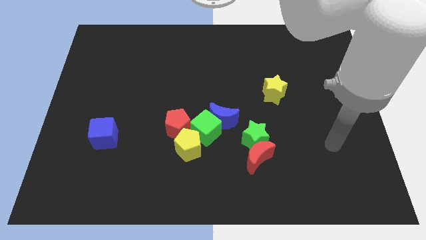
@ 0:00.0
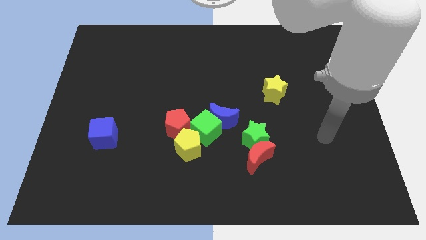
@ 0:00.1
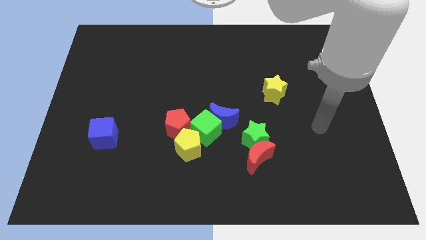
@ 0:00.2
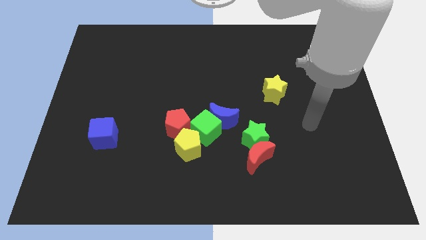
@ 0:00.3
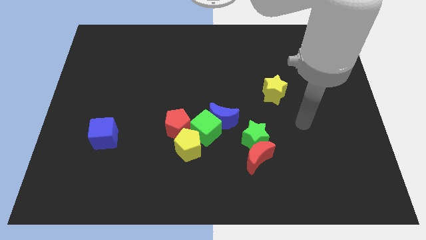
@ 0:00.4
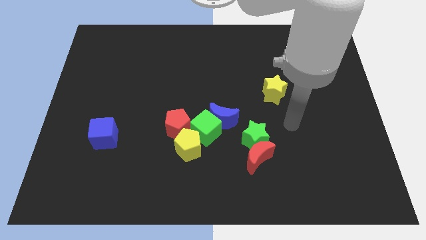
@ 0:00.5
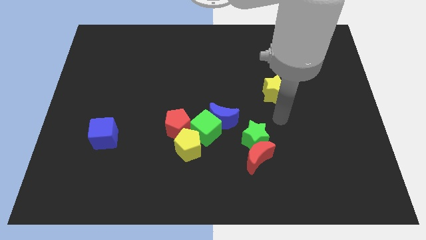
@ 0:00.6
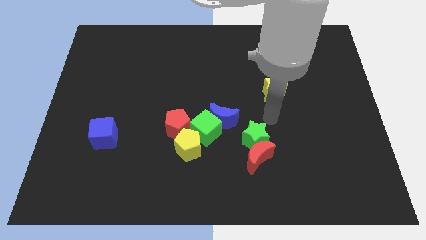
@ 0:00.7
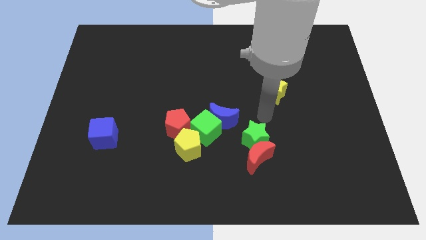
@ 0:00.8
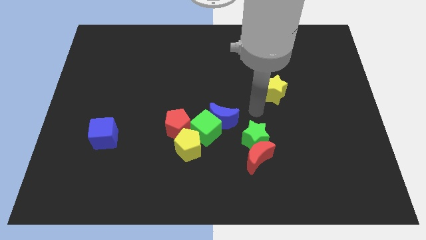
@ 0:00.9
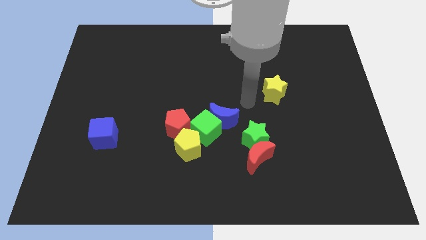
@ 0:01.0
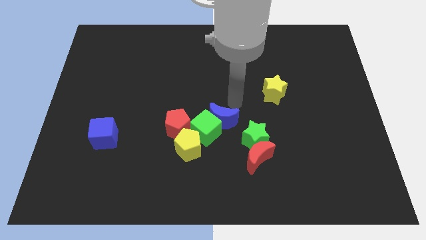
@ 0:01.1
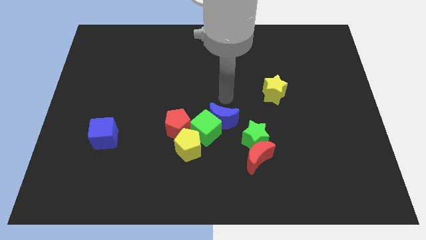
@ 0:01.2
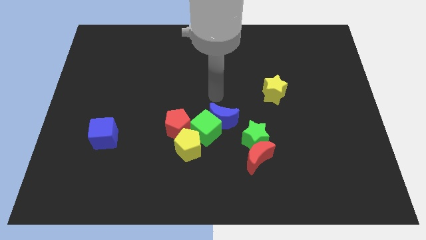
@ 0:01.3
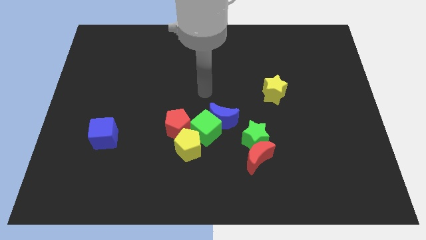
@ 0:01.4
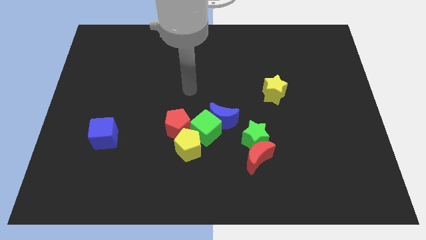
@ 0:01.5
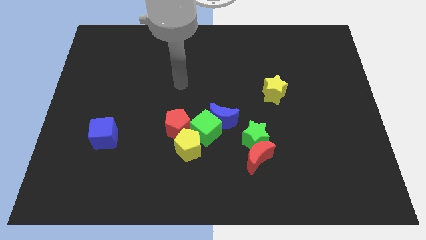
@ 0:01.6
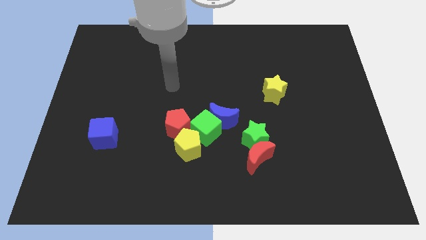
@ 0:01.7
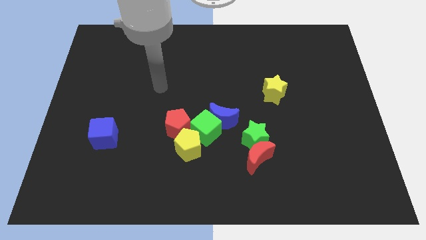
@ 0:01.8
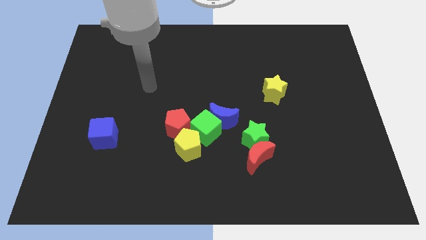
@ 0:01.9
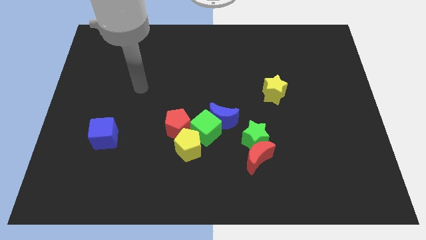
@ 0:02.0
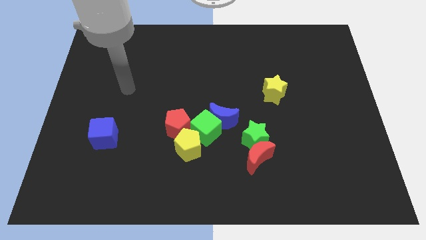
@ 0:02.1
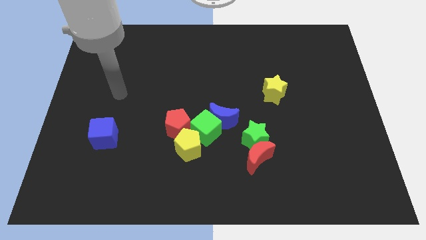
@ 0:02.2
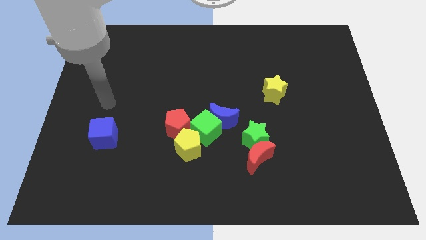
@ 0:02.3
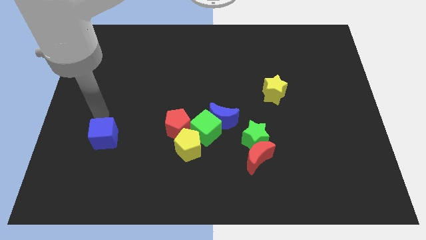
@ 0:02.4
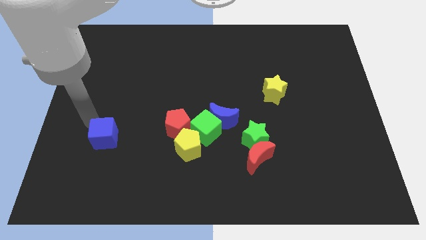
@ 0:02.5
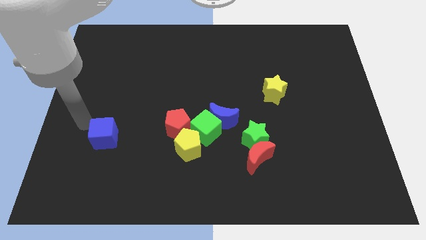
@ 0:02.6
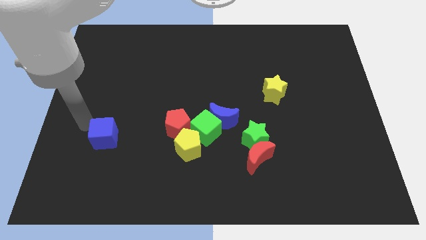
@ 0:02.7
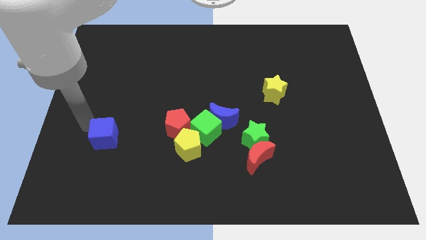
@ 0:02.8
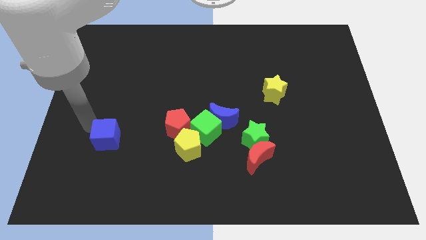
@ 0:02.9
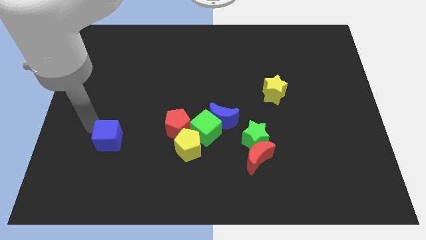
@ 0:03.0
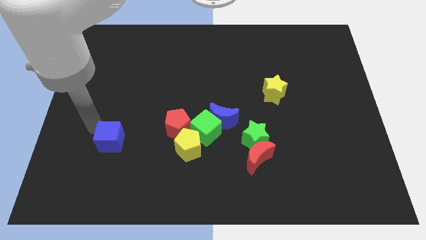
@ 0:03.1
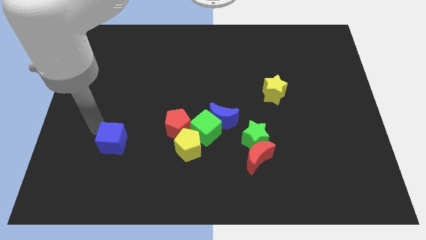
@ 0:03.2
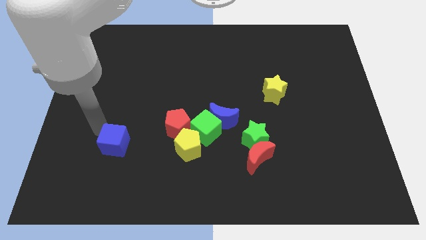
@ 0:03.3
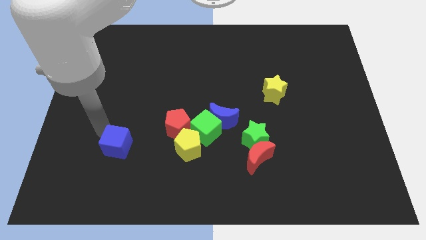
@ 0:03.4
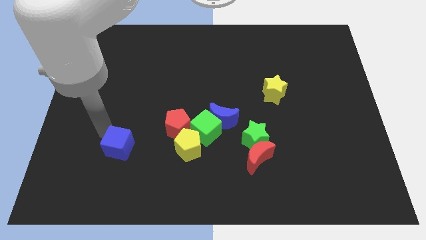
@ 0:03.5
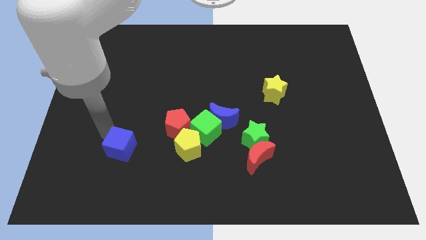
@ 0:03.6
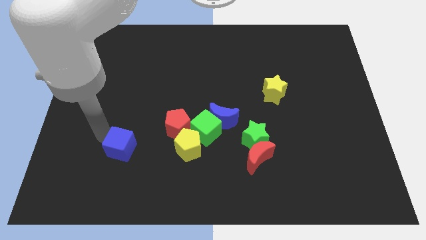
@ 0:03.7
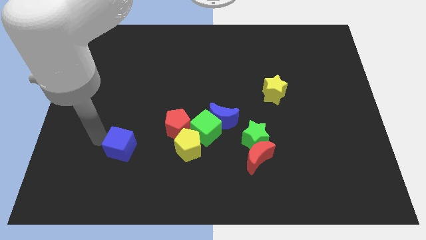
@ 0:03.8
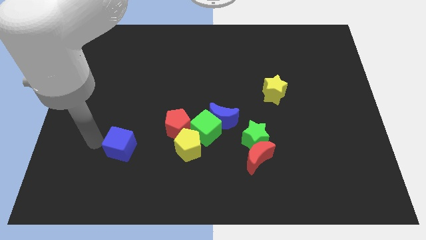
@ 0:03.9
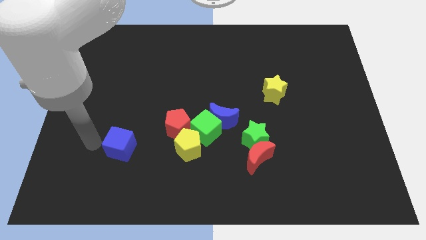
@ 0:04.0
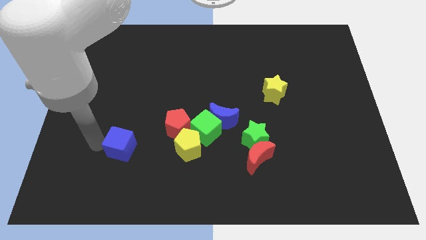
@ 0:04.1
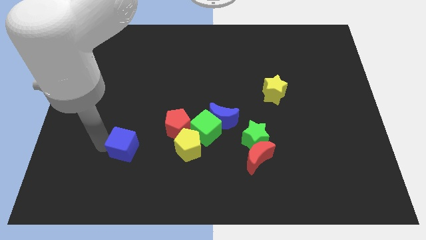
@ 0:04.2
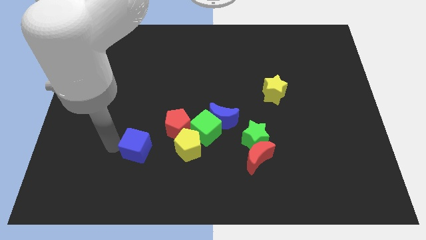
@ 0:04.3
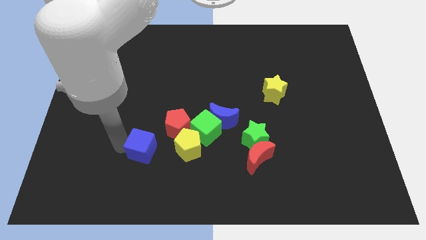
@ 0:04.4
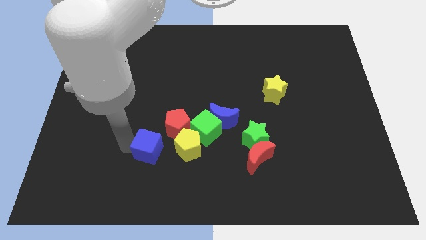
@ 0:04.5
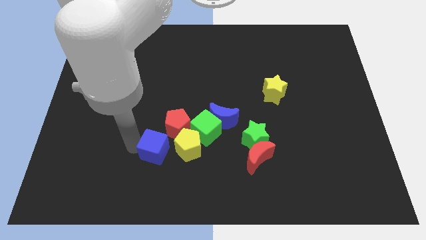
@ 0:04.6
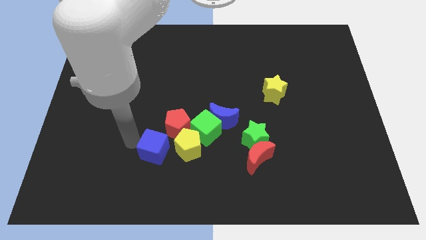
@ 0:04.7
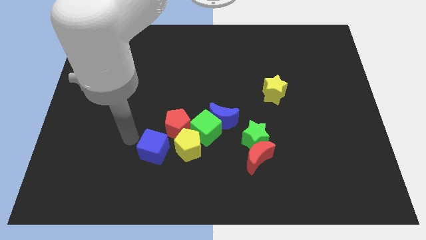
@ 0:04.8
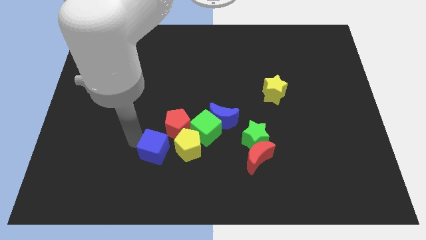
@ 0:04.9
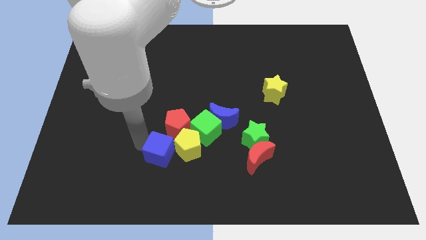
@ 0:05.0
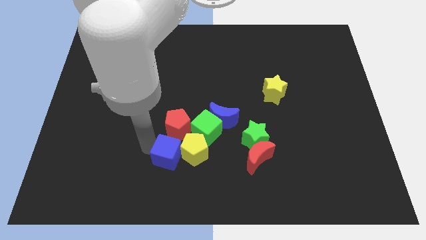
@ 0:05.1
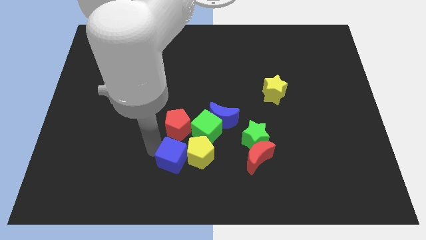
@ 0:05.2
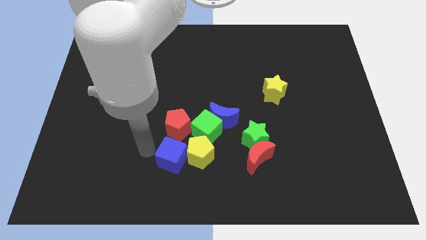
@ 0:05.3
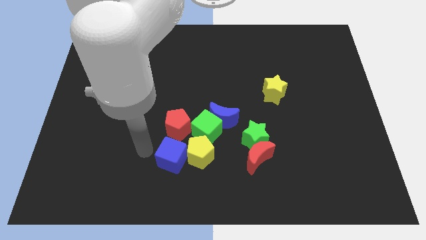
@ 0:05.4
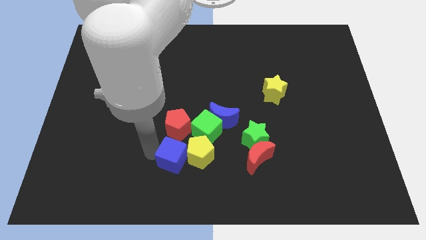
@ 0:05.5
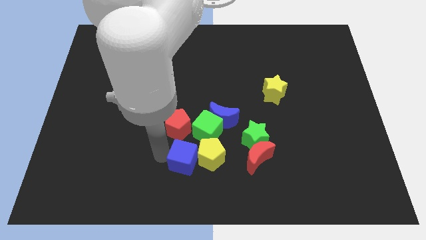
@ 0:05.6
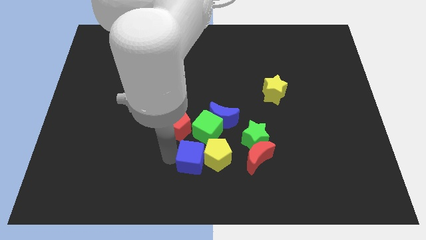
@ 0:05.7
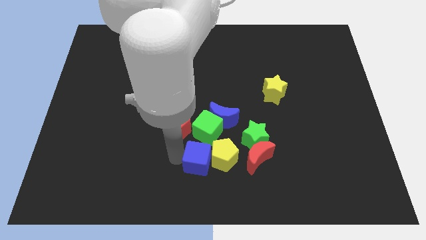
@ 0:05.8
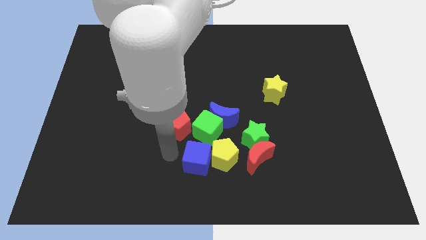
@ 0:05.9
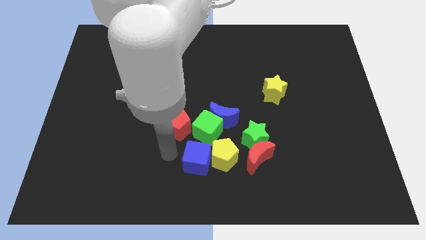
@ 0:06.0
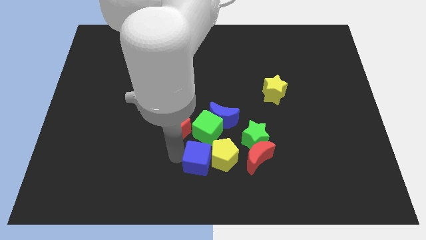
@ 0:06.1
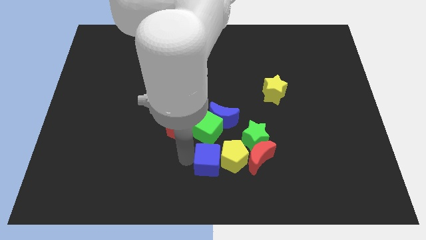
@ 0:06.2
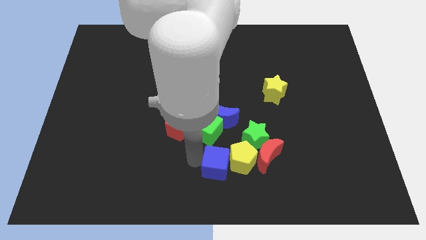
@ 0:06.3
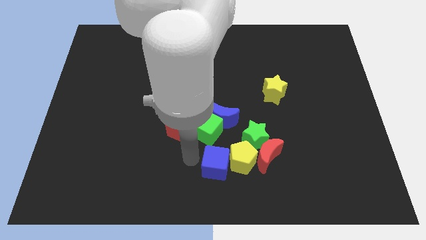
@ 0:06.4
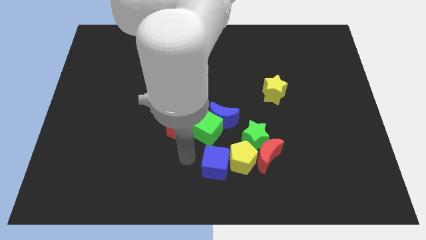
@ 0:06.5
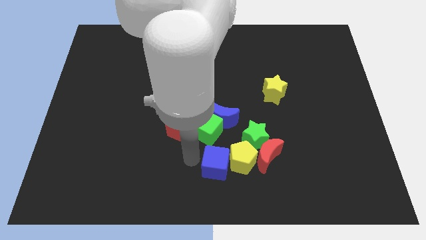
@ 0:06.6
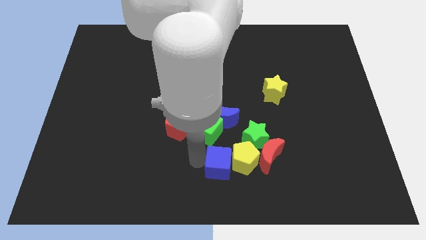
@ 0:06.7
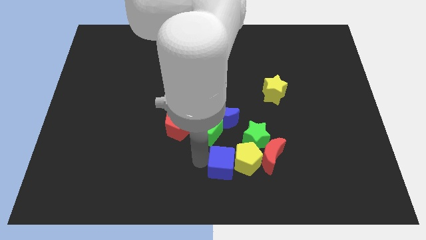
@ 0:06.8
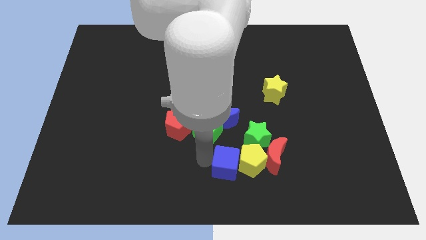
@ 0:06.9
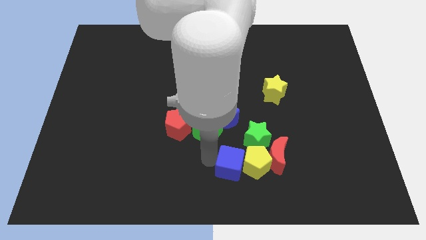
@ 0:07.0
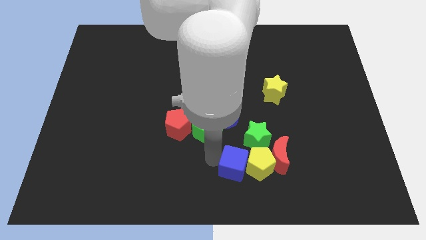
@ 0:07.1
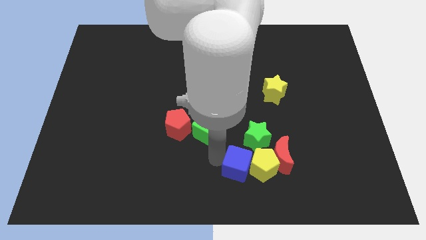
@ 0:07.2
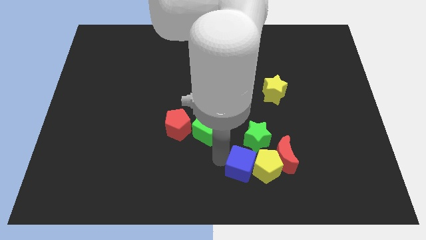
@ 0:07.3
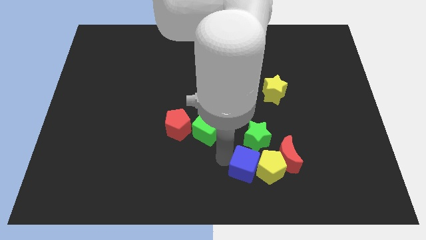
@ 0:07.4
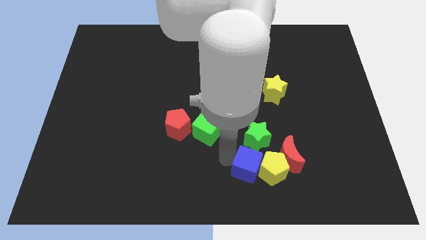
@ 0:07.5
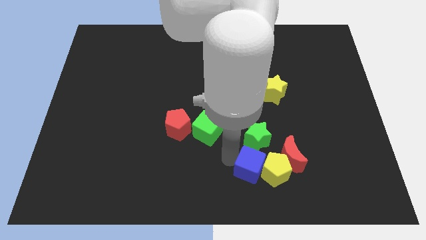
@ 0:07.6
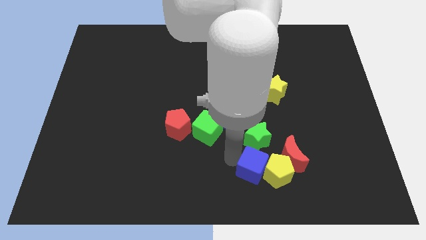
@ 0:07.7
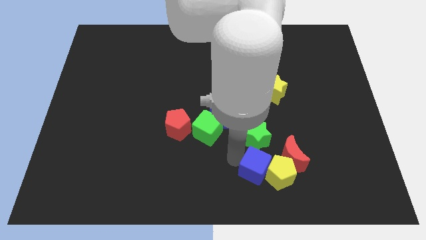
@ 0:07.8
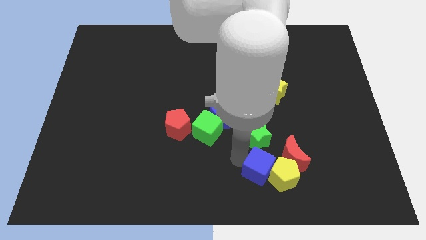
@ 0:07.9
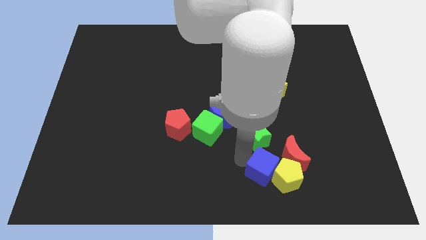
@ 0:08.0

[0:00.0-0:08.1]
move the blue cube to the bottom right of the green star
